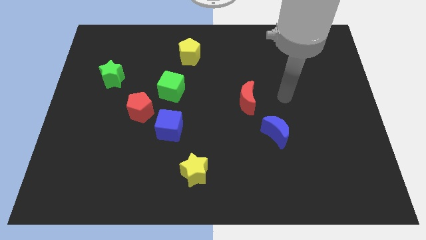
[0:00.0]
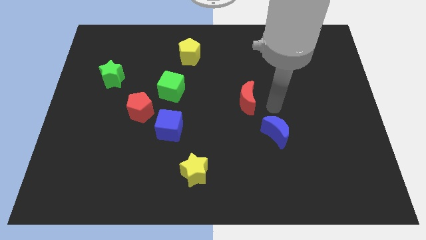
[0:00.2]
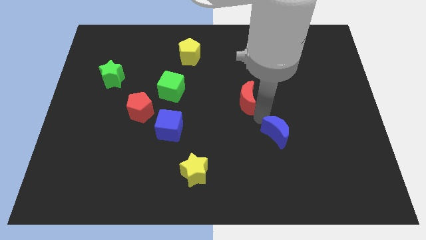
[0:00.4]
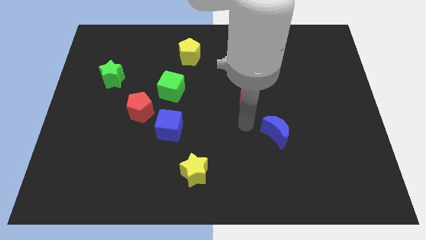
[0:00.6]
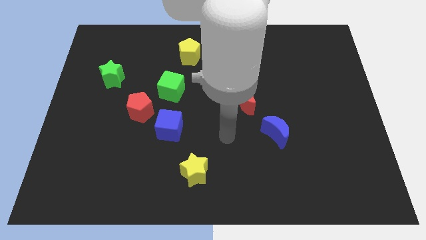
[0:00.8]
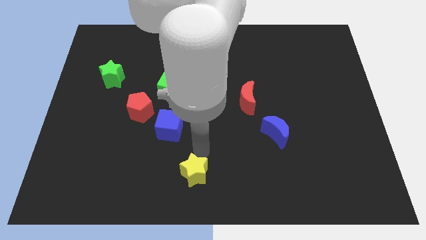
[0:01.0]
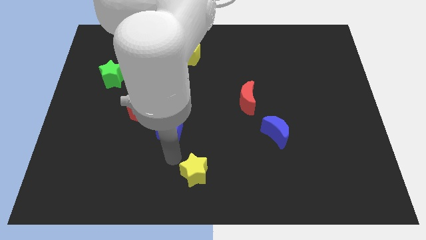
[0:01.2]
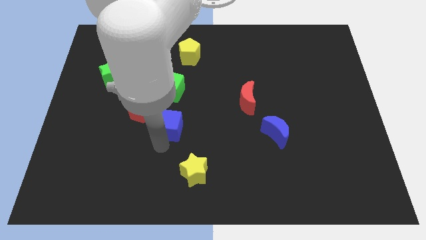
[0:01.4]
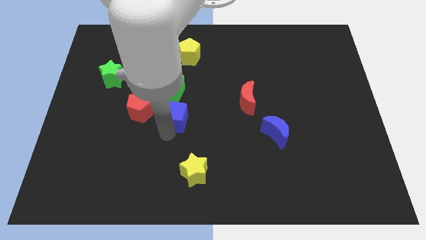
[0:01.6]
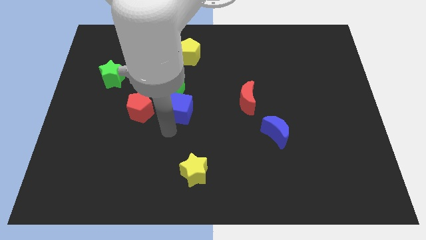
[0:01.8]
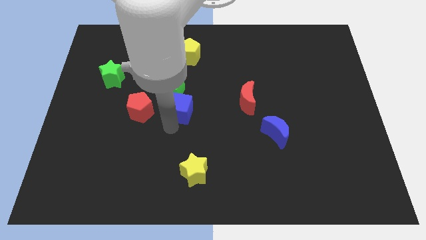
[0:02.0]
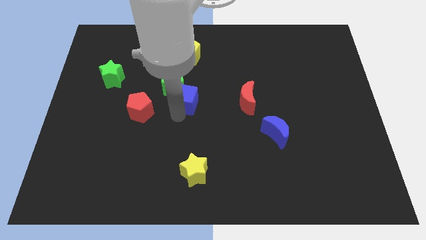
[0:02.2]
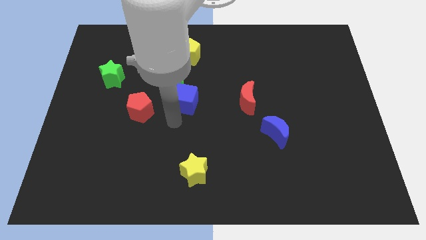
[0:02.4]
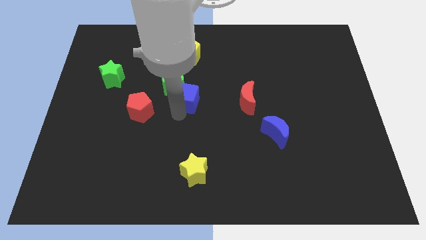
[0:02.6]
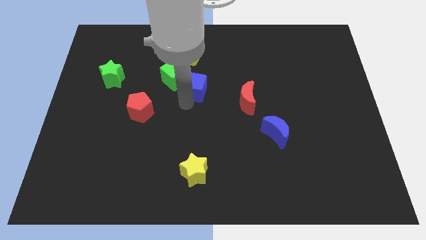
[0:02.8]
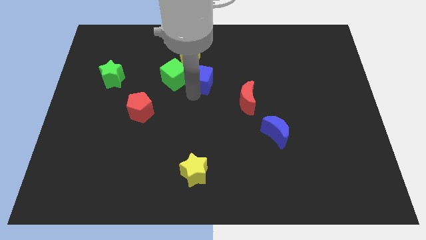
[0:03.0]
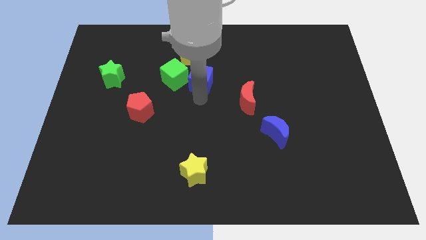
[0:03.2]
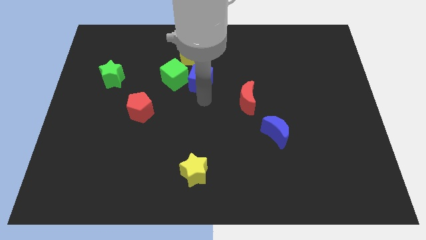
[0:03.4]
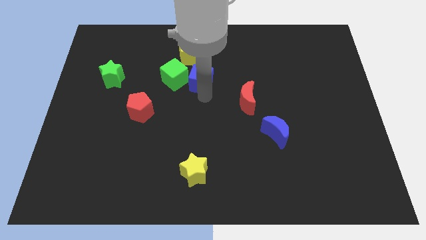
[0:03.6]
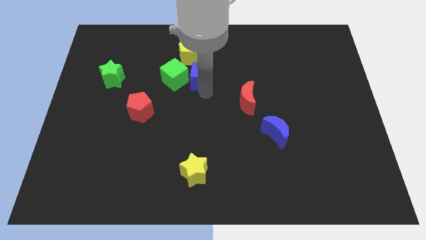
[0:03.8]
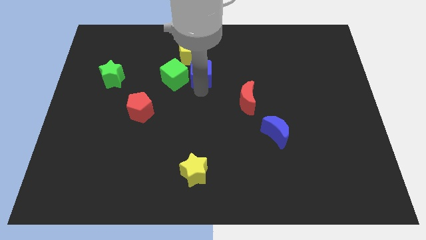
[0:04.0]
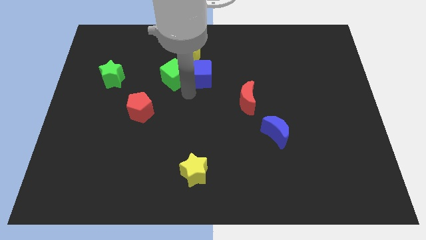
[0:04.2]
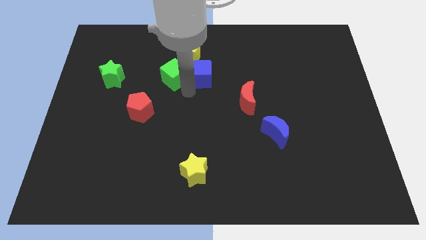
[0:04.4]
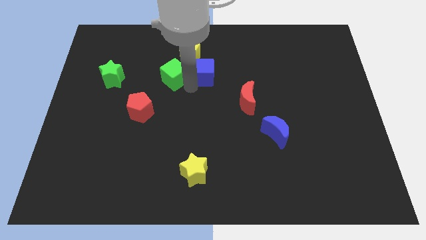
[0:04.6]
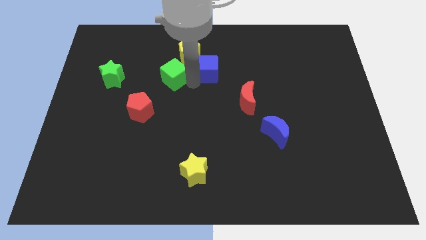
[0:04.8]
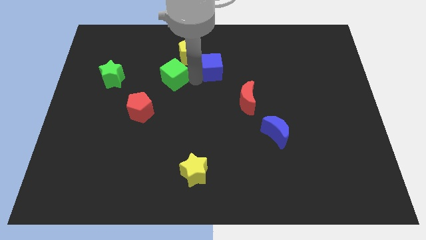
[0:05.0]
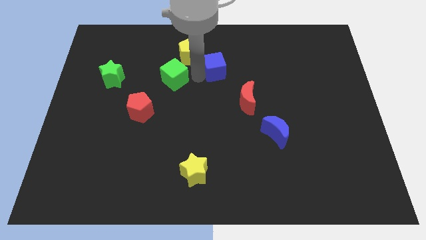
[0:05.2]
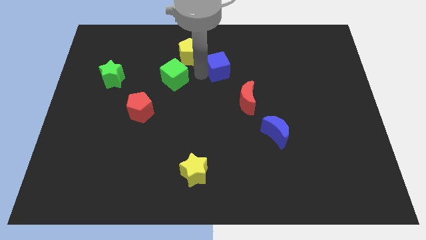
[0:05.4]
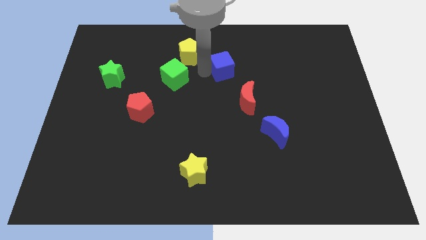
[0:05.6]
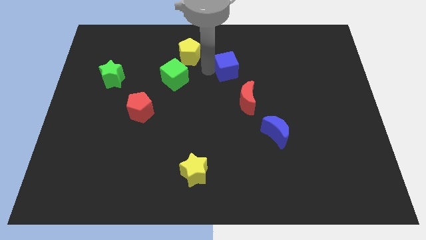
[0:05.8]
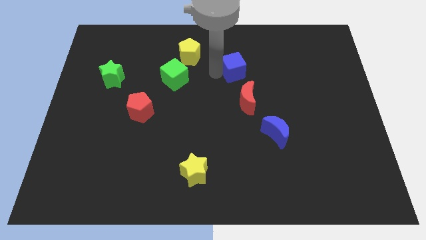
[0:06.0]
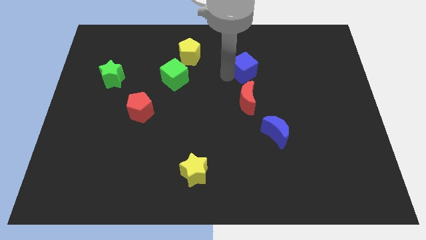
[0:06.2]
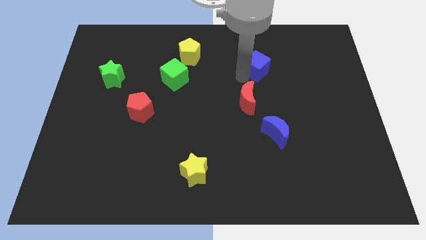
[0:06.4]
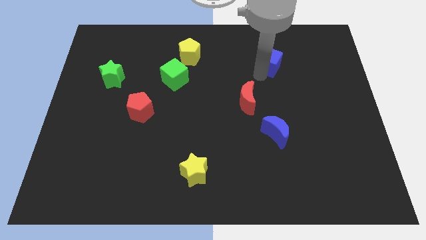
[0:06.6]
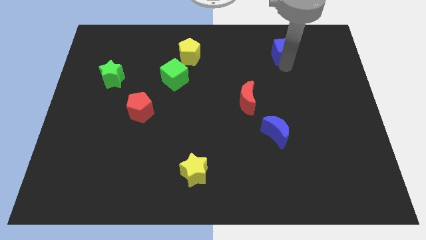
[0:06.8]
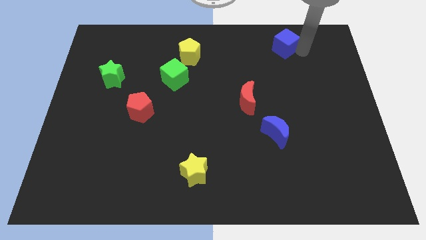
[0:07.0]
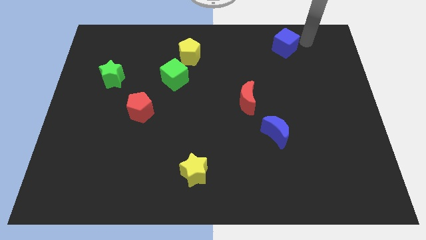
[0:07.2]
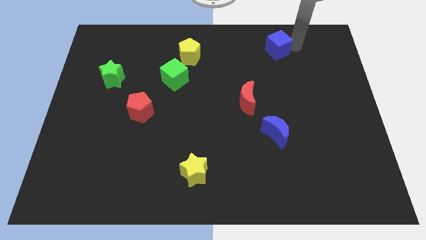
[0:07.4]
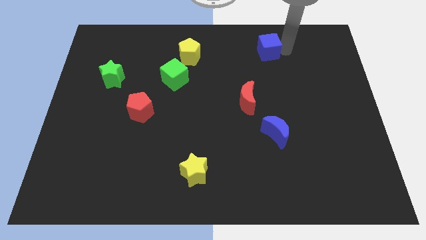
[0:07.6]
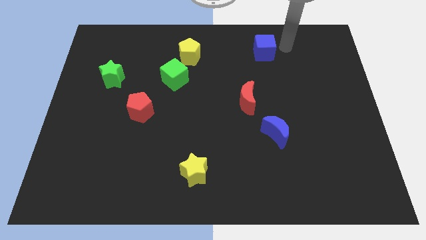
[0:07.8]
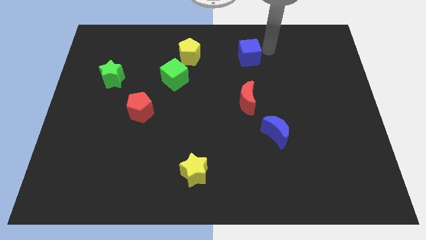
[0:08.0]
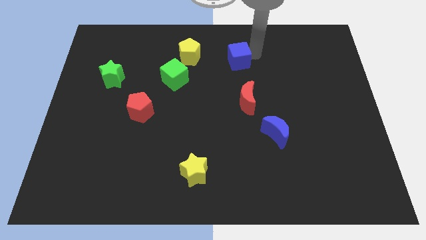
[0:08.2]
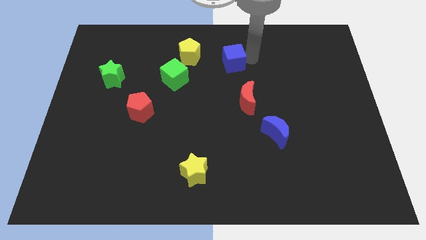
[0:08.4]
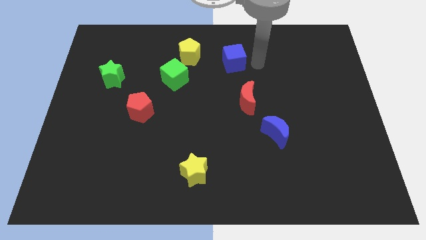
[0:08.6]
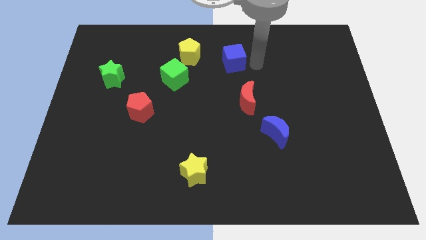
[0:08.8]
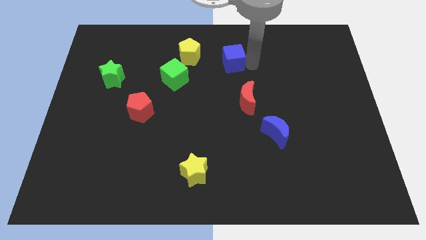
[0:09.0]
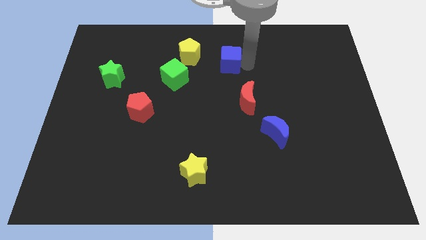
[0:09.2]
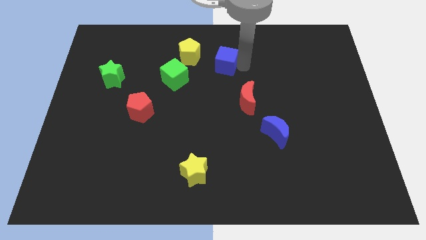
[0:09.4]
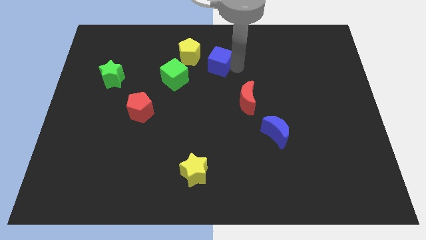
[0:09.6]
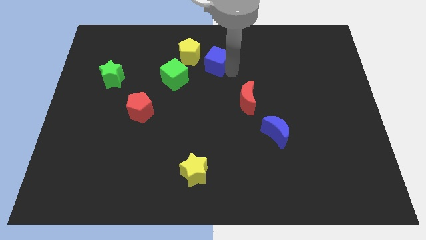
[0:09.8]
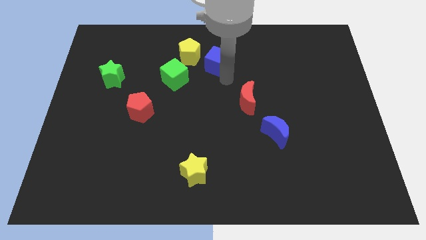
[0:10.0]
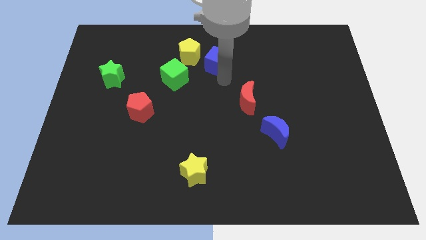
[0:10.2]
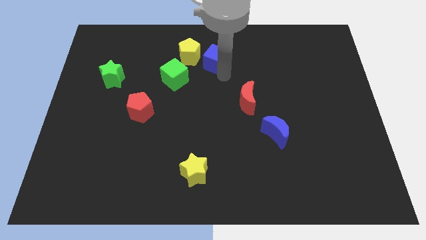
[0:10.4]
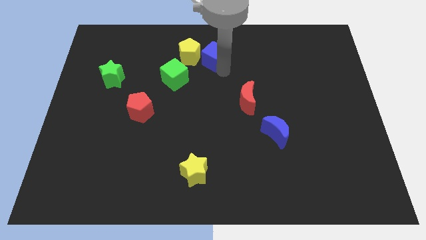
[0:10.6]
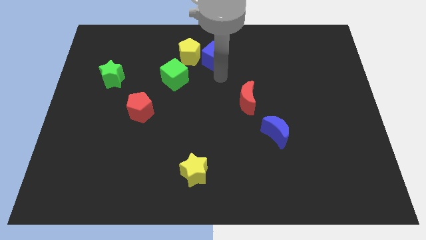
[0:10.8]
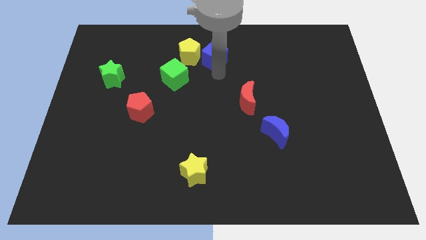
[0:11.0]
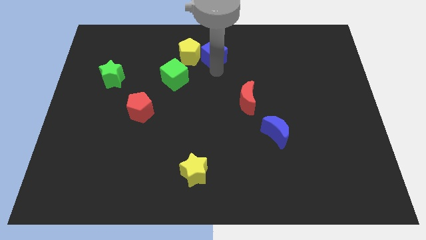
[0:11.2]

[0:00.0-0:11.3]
move the blue cube to the towards your base
